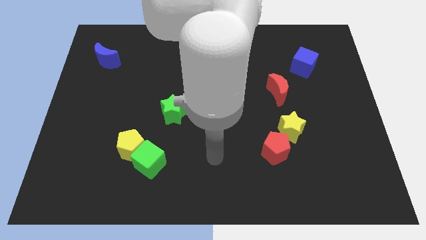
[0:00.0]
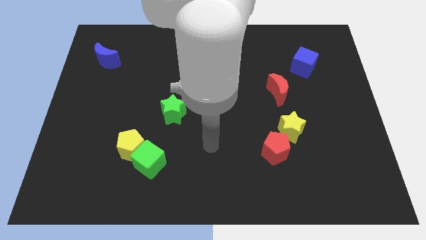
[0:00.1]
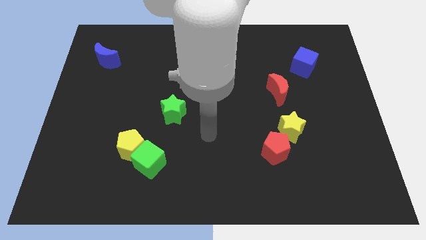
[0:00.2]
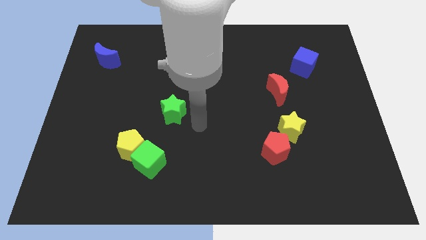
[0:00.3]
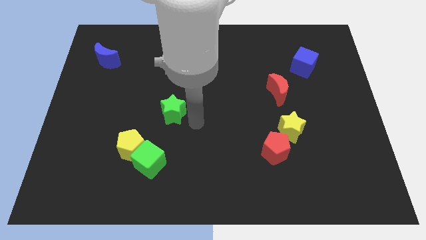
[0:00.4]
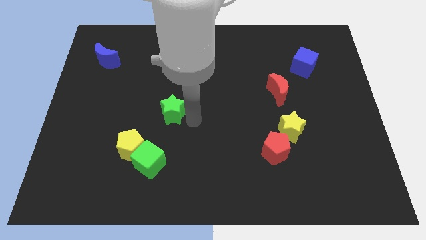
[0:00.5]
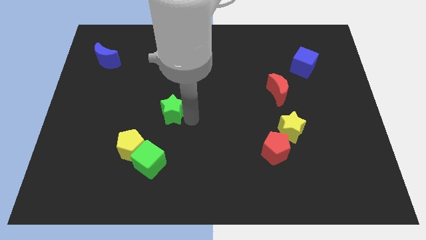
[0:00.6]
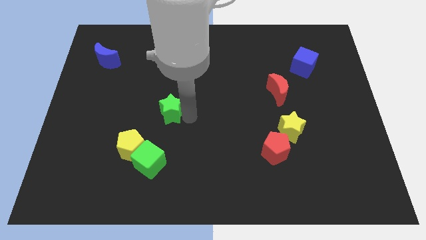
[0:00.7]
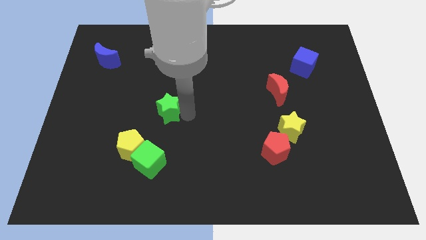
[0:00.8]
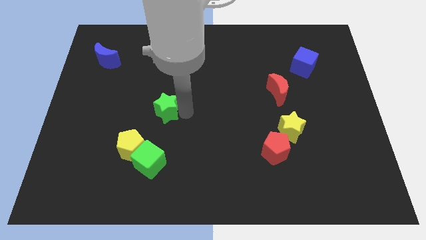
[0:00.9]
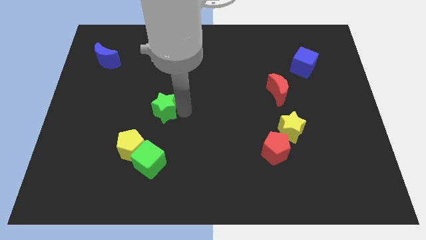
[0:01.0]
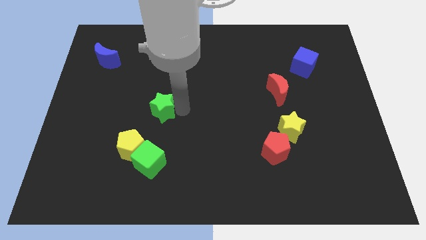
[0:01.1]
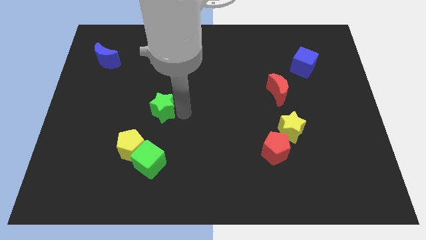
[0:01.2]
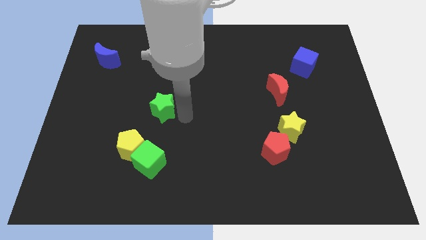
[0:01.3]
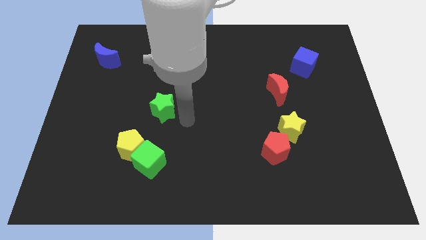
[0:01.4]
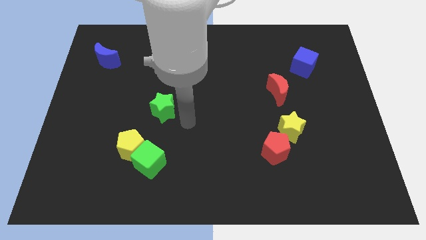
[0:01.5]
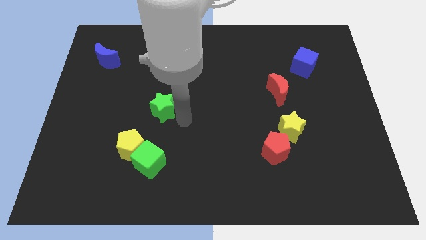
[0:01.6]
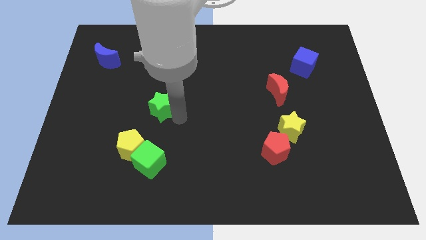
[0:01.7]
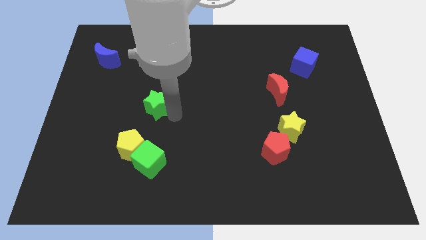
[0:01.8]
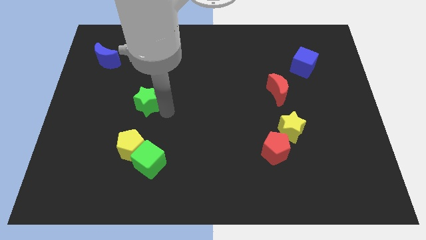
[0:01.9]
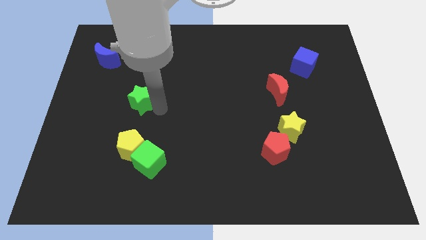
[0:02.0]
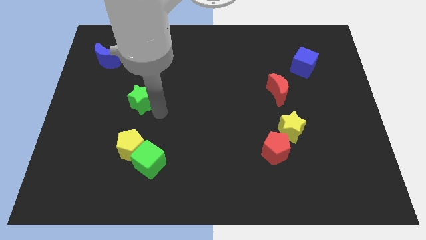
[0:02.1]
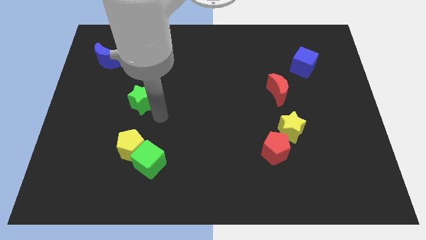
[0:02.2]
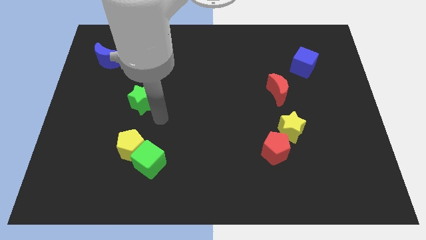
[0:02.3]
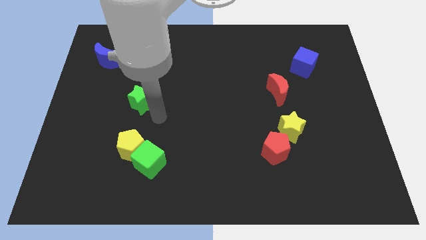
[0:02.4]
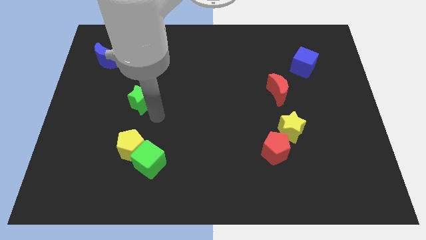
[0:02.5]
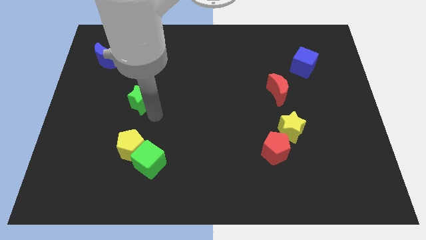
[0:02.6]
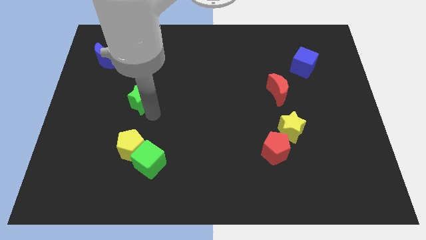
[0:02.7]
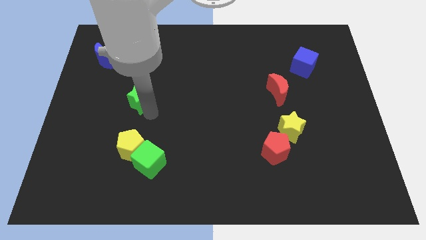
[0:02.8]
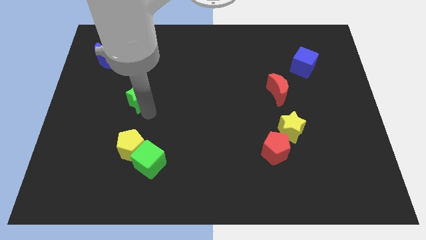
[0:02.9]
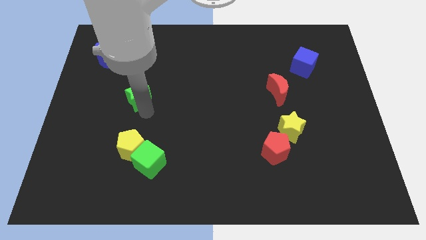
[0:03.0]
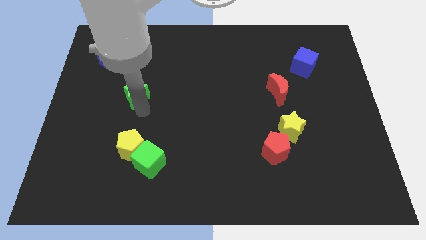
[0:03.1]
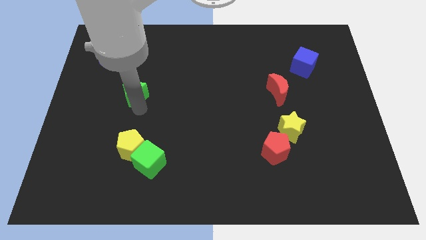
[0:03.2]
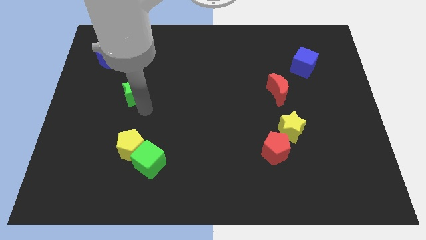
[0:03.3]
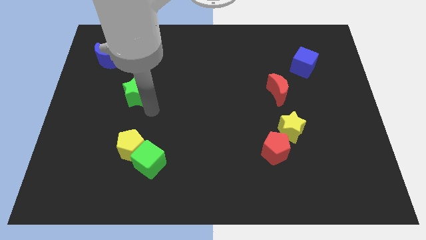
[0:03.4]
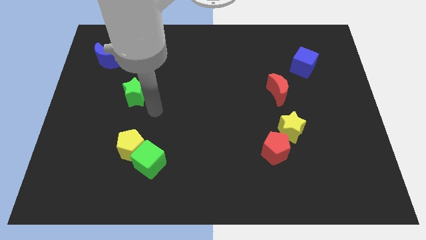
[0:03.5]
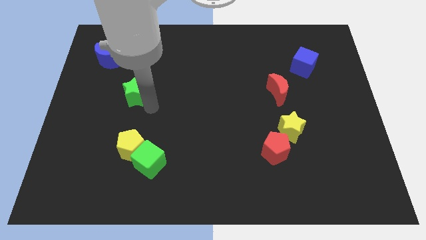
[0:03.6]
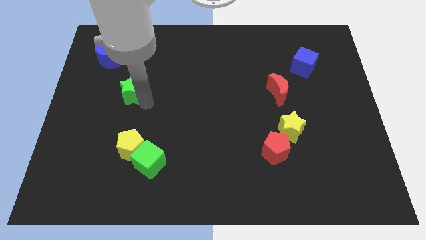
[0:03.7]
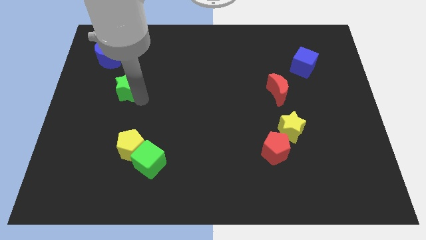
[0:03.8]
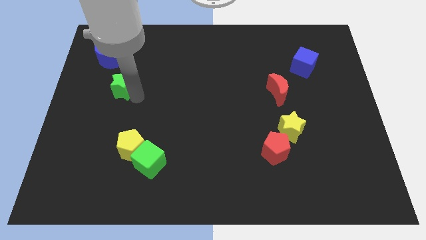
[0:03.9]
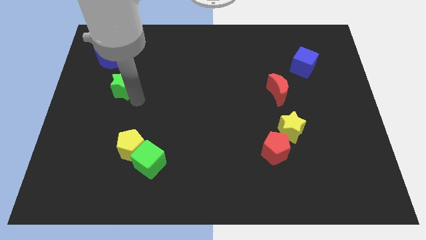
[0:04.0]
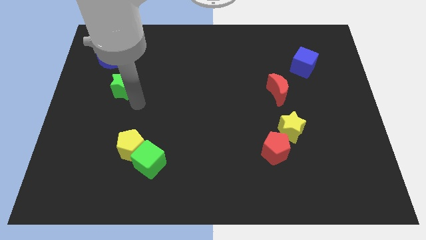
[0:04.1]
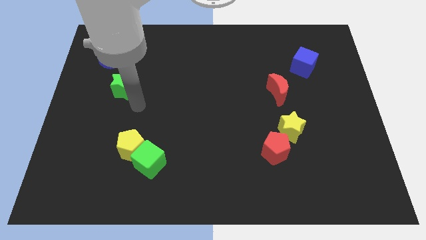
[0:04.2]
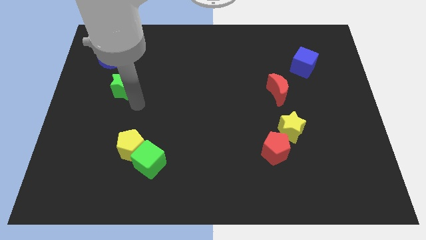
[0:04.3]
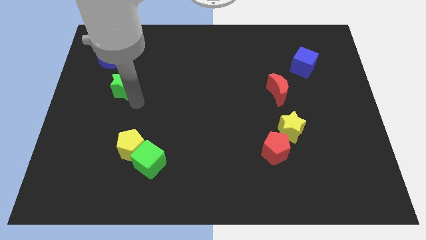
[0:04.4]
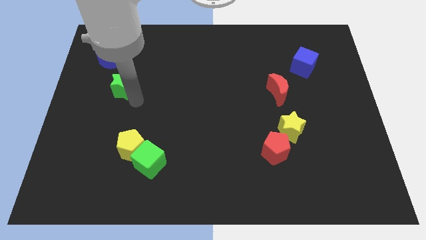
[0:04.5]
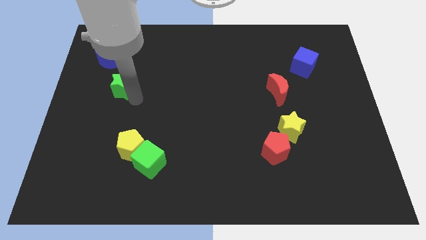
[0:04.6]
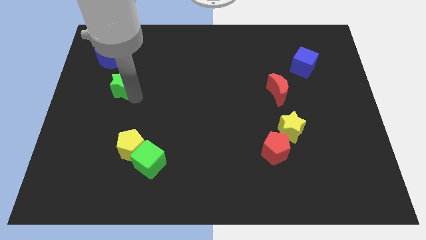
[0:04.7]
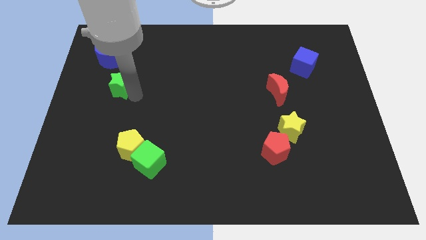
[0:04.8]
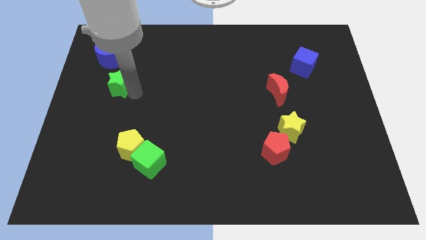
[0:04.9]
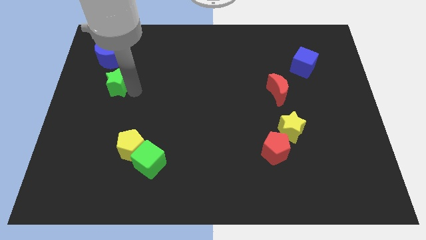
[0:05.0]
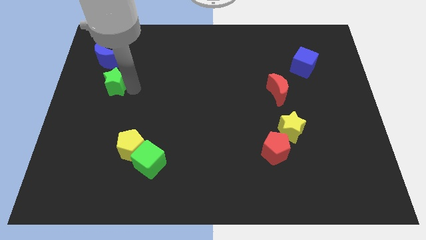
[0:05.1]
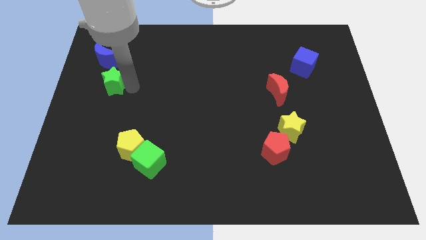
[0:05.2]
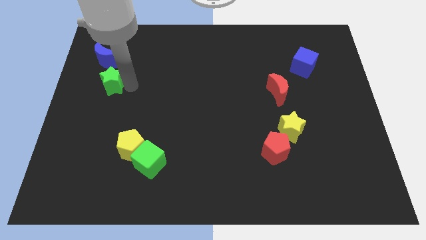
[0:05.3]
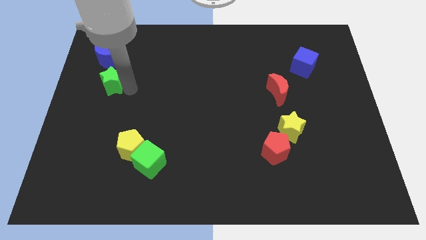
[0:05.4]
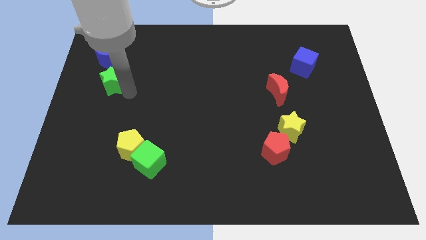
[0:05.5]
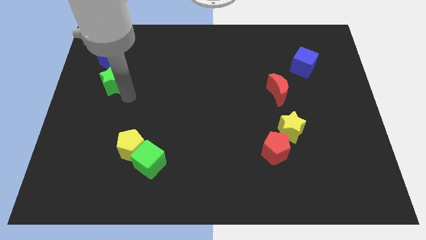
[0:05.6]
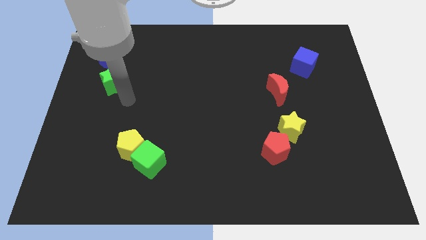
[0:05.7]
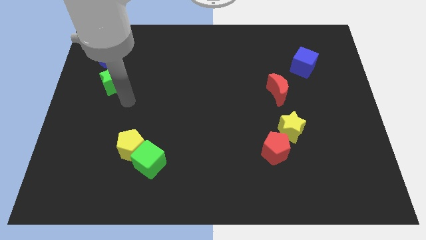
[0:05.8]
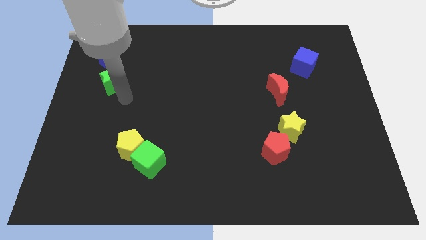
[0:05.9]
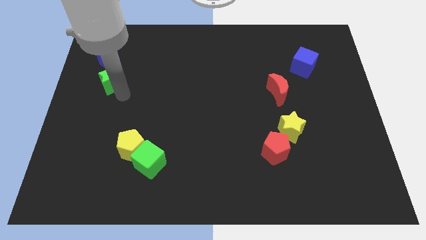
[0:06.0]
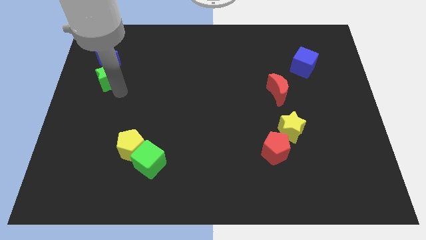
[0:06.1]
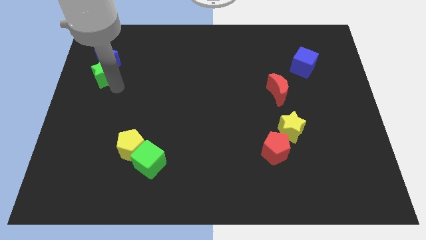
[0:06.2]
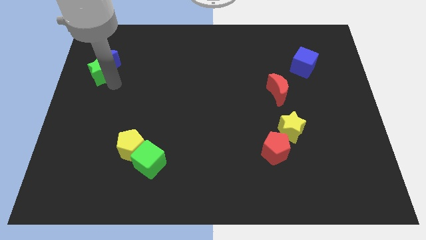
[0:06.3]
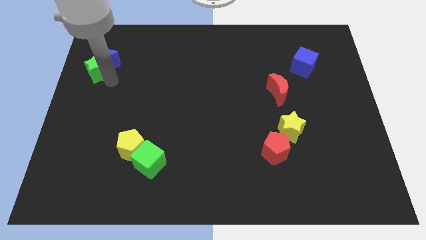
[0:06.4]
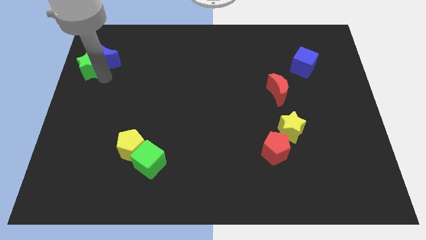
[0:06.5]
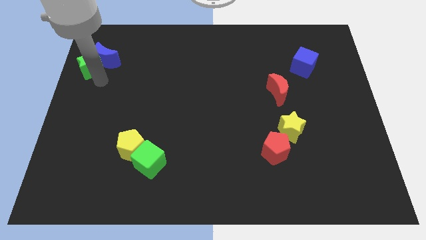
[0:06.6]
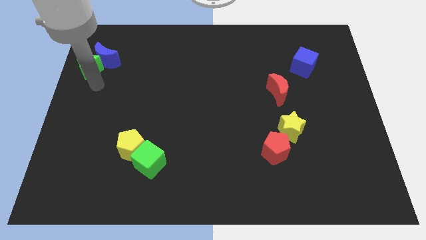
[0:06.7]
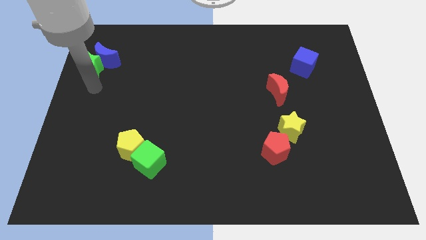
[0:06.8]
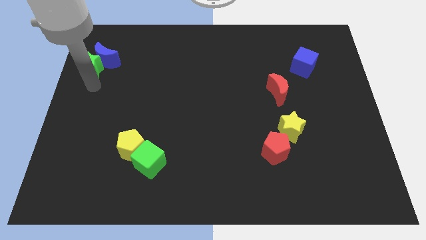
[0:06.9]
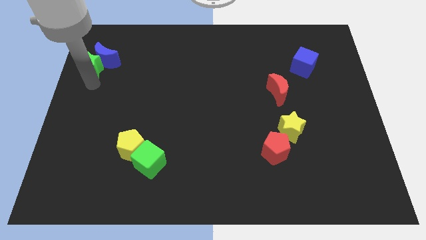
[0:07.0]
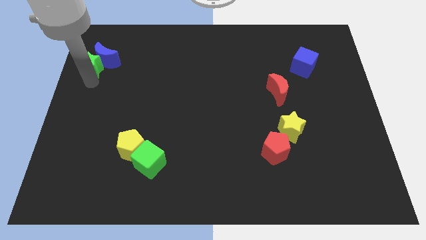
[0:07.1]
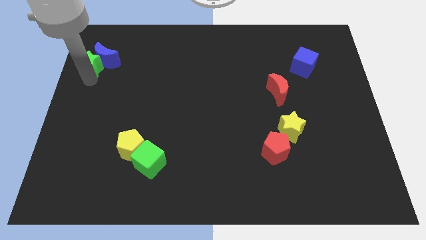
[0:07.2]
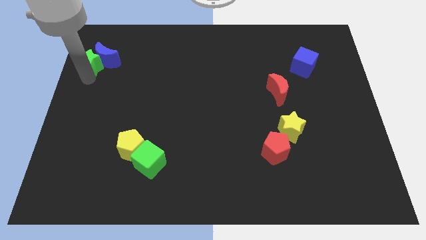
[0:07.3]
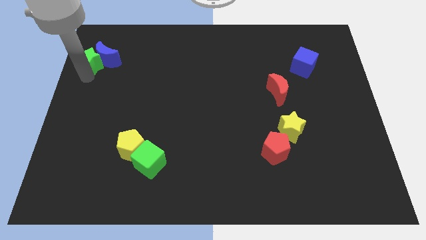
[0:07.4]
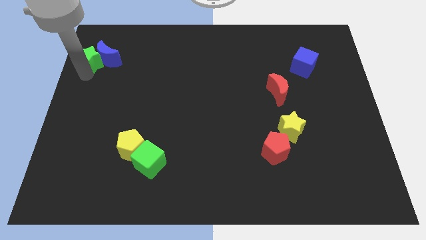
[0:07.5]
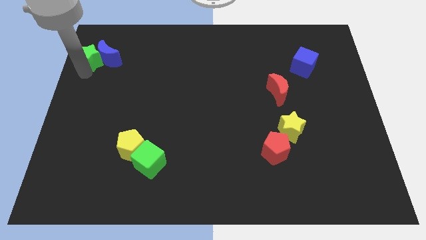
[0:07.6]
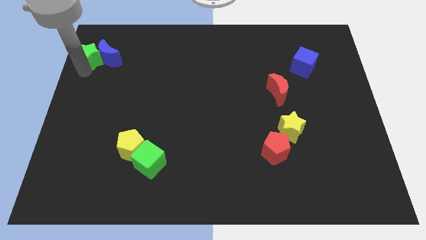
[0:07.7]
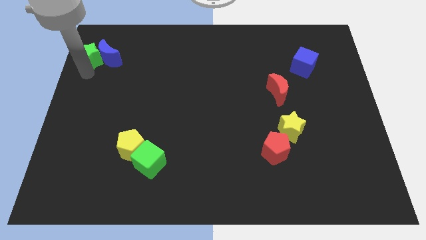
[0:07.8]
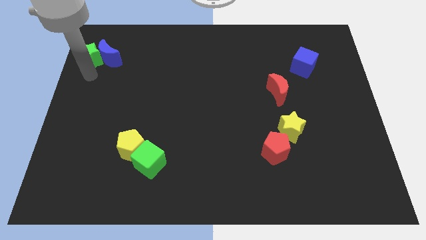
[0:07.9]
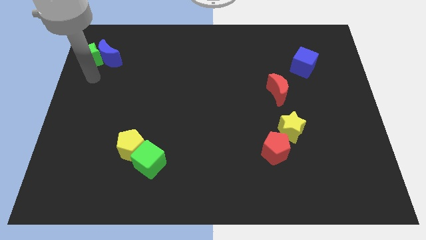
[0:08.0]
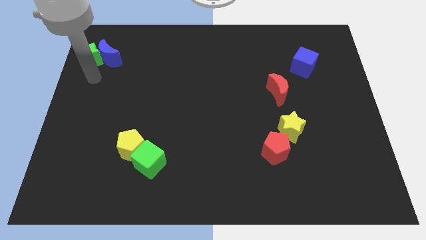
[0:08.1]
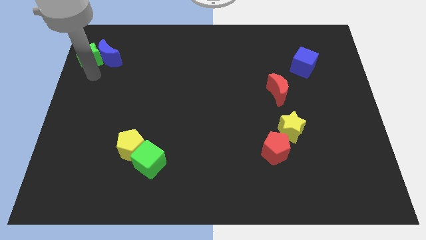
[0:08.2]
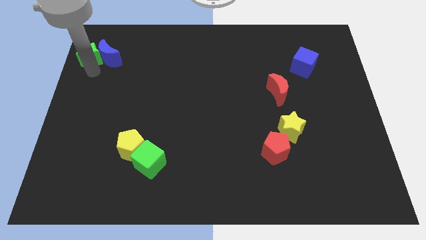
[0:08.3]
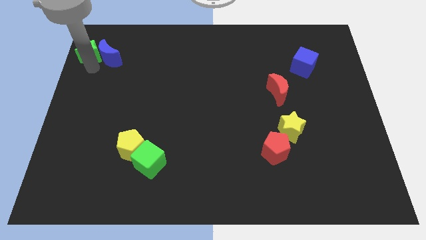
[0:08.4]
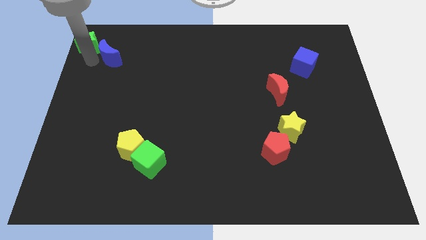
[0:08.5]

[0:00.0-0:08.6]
move the green star to the upper left corner
